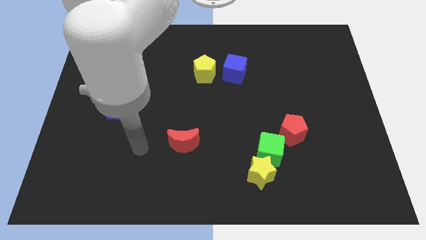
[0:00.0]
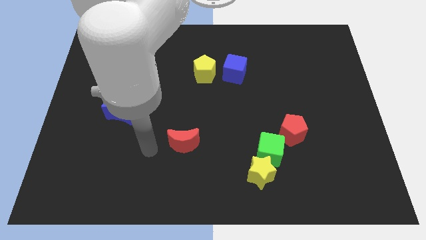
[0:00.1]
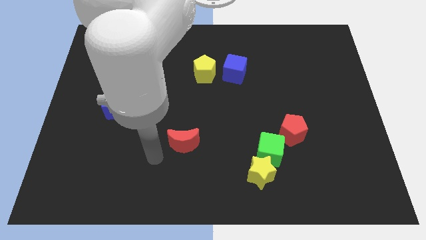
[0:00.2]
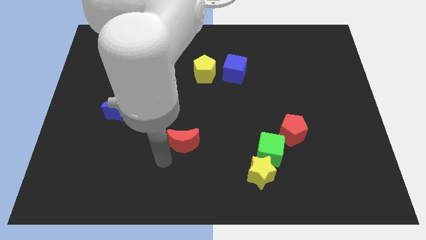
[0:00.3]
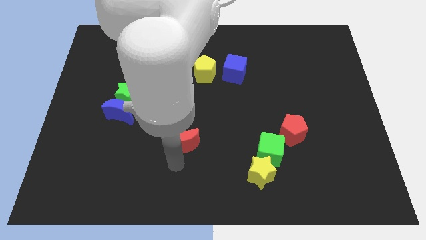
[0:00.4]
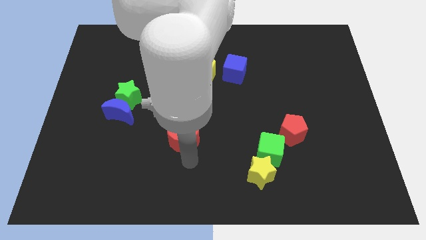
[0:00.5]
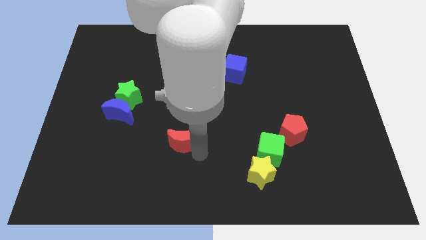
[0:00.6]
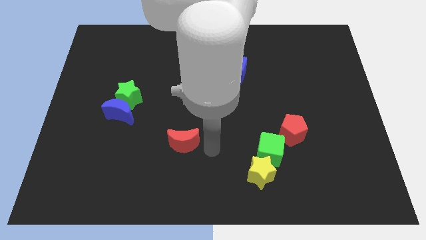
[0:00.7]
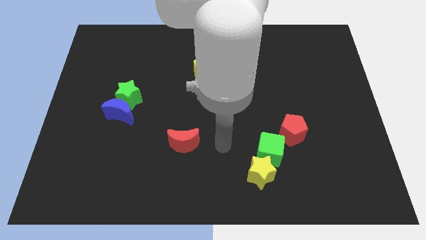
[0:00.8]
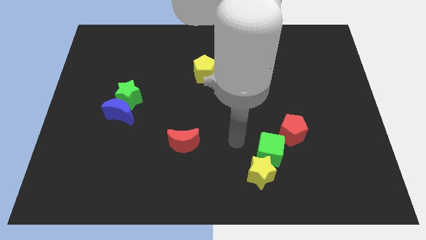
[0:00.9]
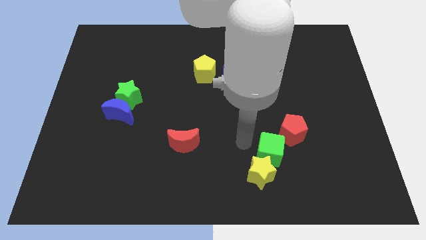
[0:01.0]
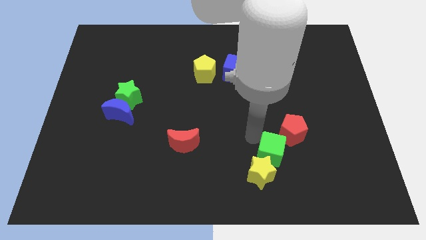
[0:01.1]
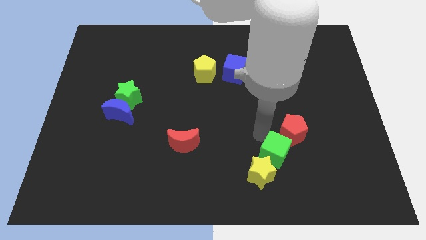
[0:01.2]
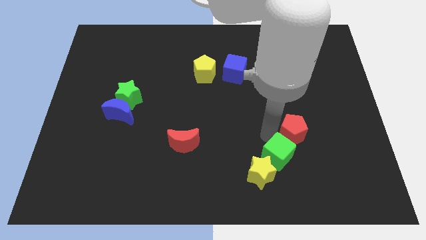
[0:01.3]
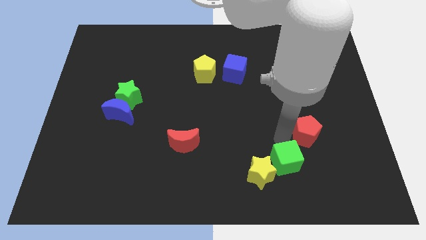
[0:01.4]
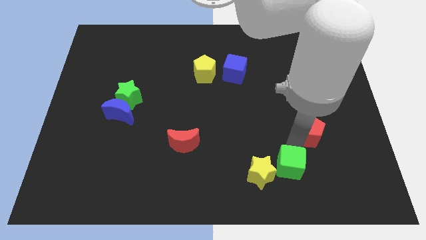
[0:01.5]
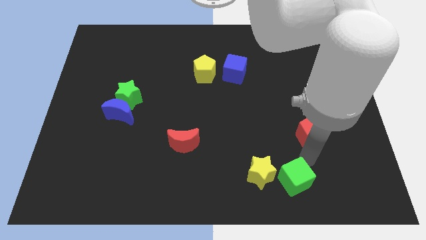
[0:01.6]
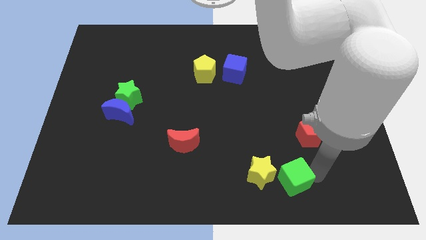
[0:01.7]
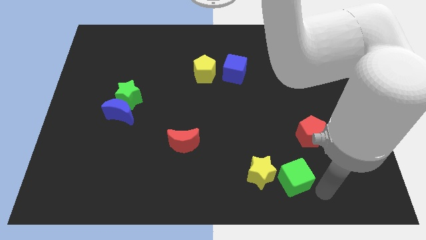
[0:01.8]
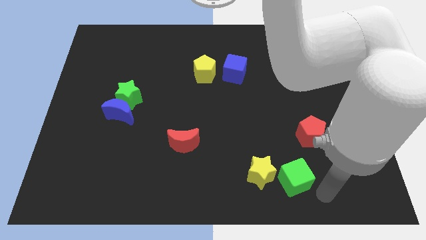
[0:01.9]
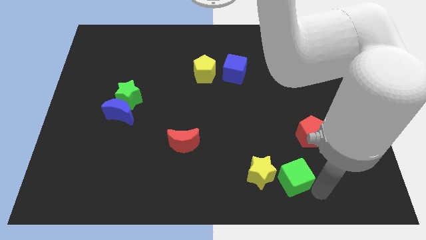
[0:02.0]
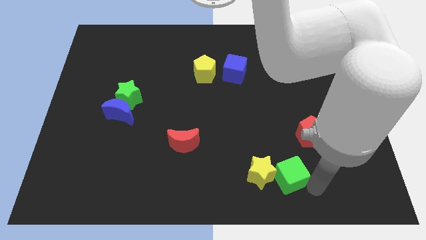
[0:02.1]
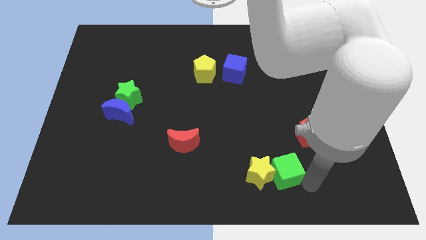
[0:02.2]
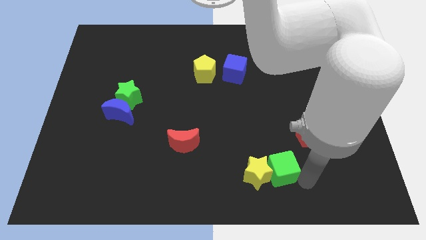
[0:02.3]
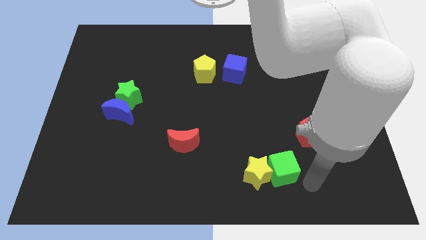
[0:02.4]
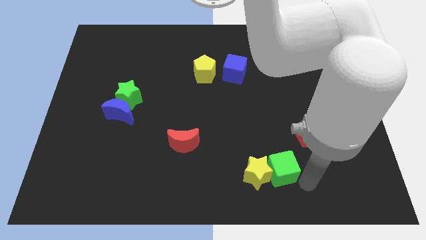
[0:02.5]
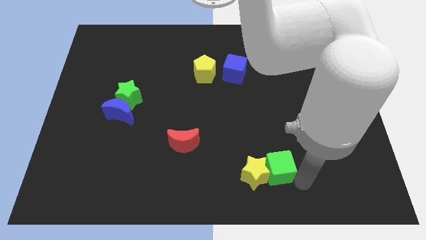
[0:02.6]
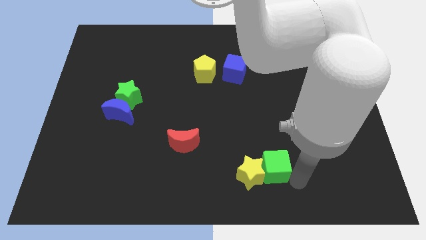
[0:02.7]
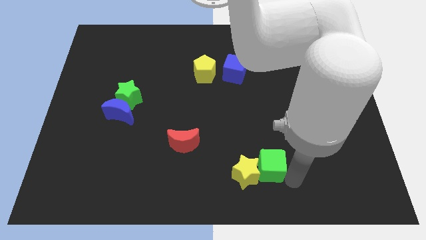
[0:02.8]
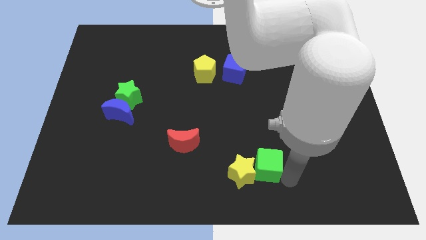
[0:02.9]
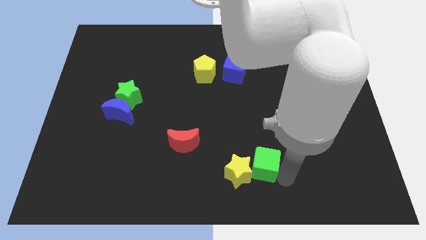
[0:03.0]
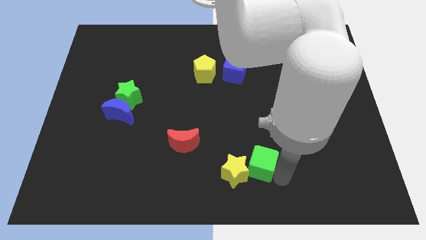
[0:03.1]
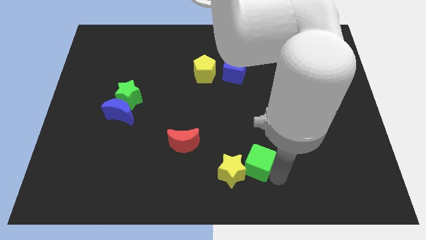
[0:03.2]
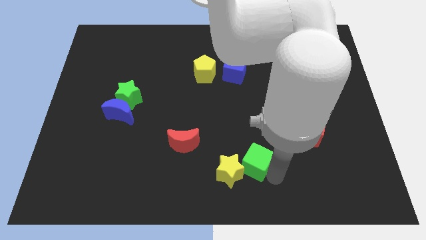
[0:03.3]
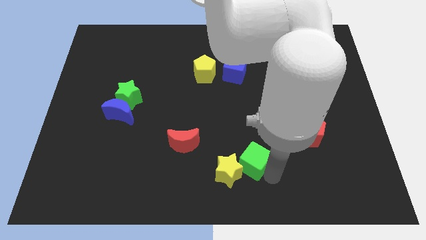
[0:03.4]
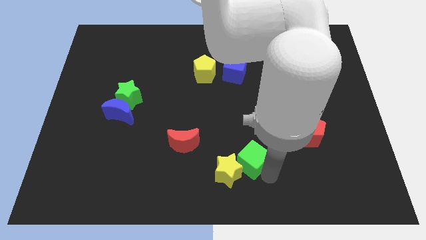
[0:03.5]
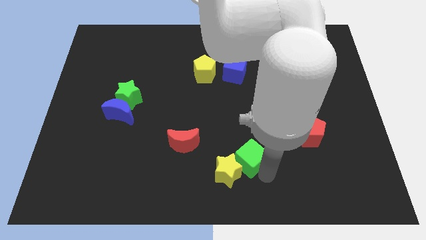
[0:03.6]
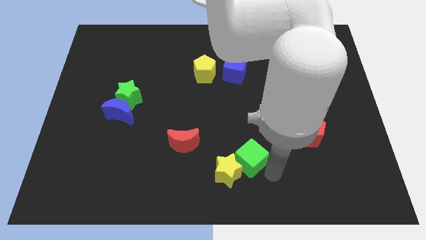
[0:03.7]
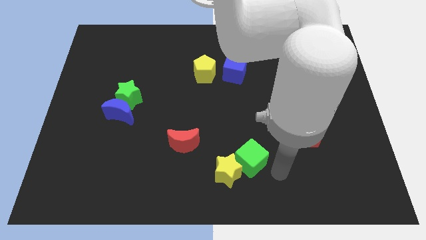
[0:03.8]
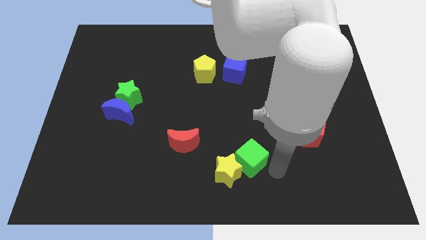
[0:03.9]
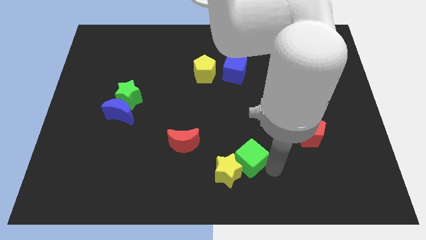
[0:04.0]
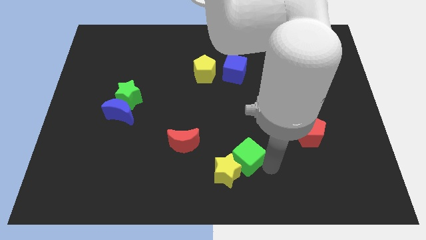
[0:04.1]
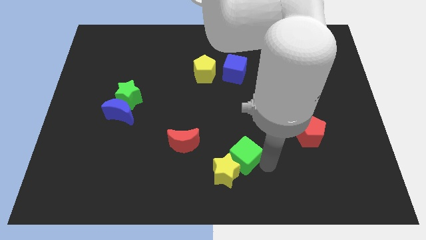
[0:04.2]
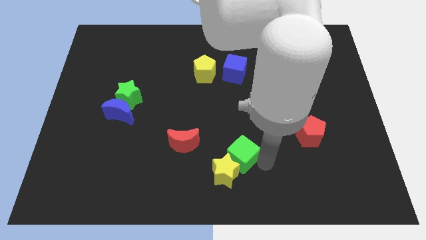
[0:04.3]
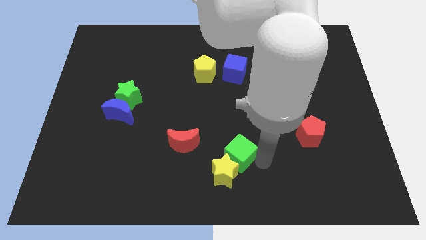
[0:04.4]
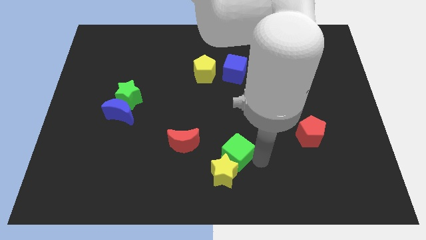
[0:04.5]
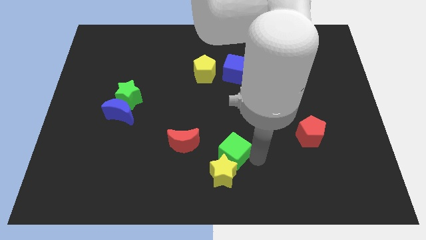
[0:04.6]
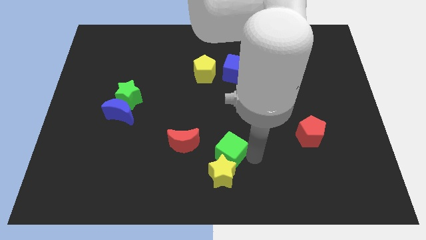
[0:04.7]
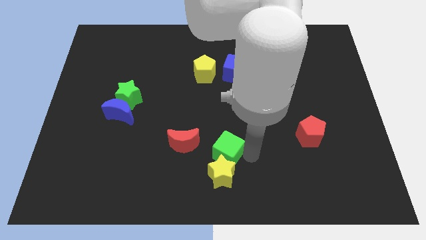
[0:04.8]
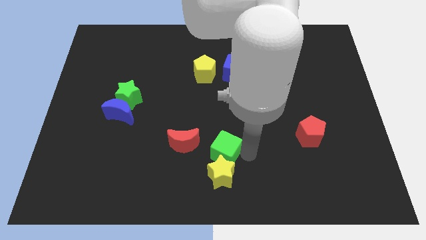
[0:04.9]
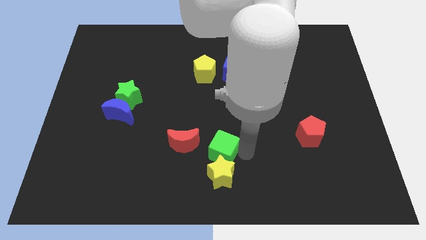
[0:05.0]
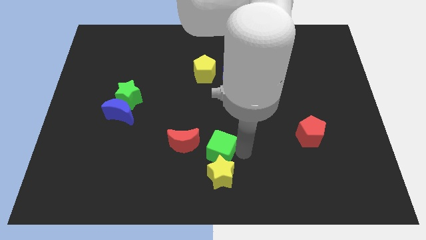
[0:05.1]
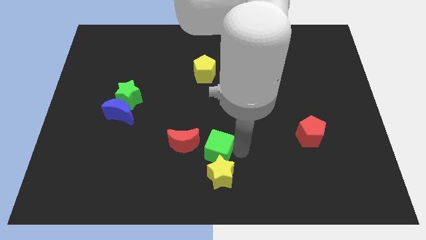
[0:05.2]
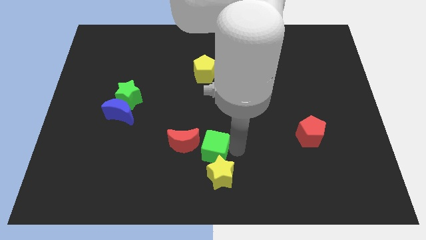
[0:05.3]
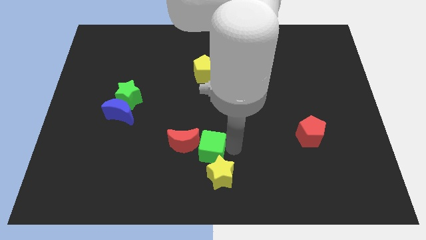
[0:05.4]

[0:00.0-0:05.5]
slide the green cube close to the red moon
